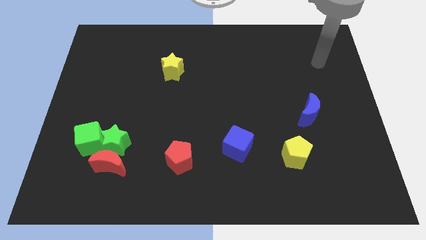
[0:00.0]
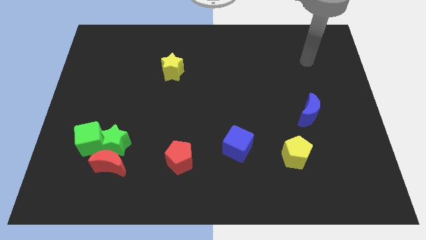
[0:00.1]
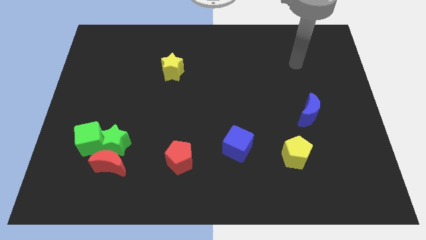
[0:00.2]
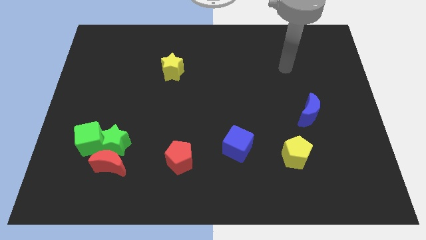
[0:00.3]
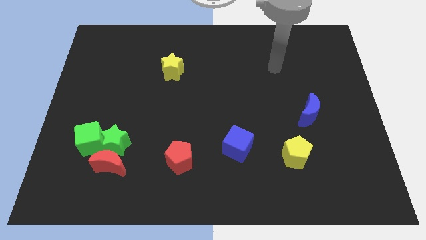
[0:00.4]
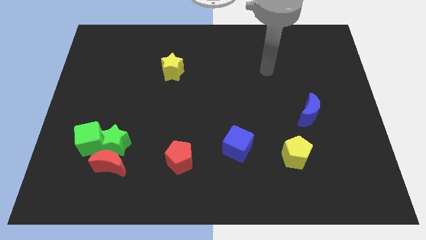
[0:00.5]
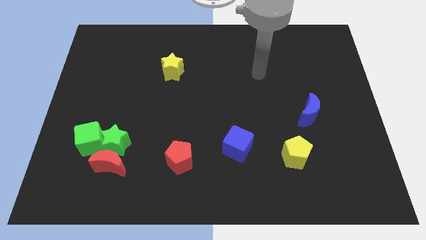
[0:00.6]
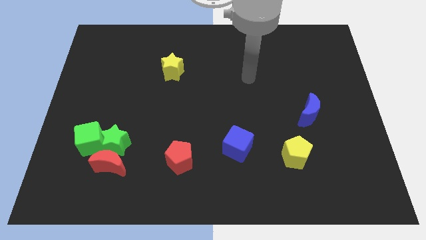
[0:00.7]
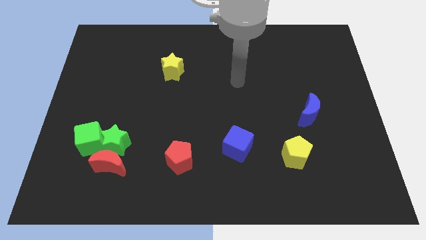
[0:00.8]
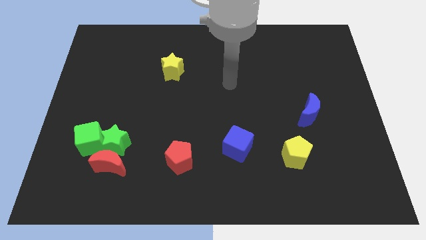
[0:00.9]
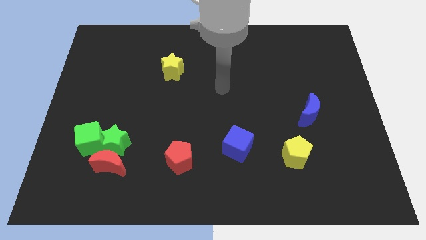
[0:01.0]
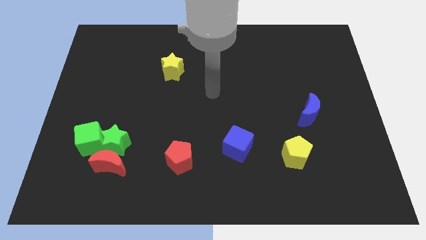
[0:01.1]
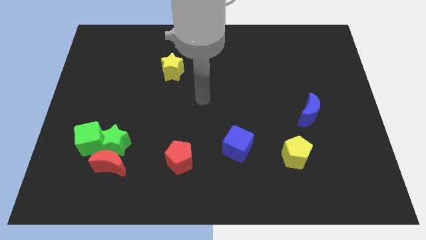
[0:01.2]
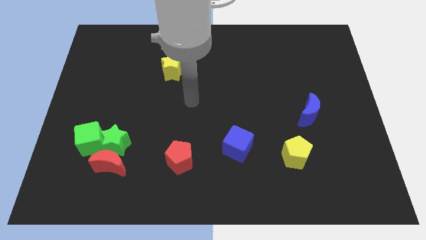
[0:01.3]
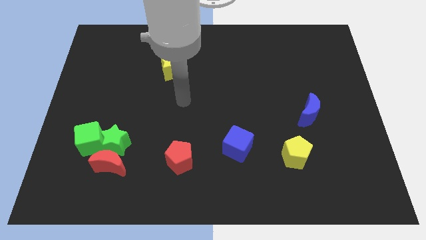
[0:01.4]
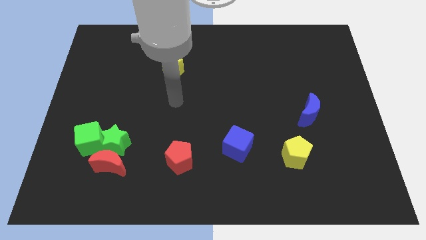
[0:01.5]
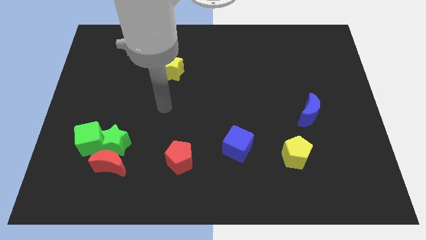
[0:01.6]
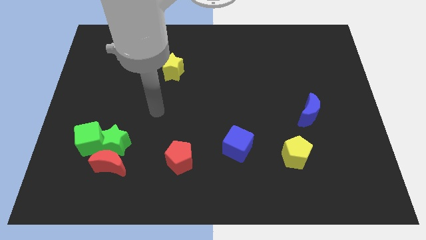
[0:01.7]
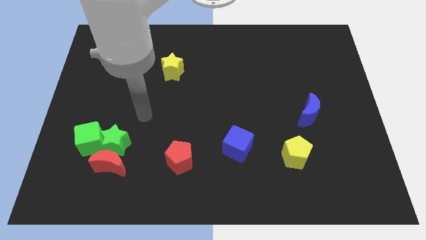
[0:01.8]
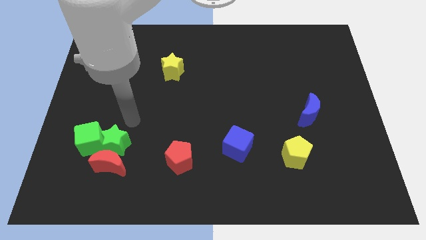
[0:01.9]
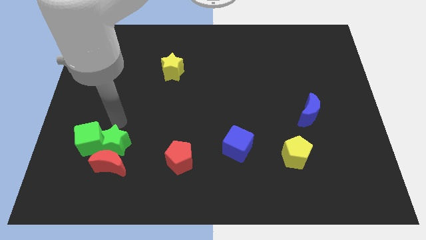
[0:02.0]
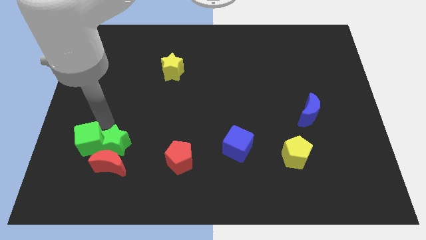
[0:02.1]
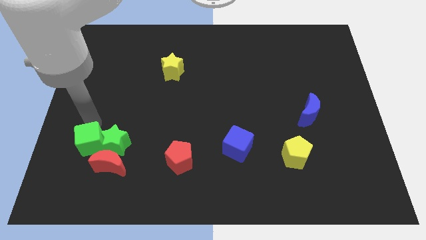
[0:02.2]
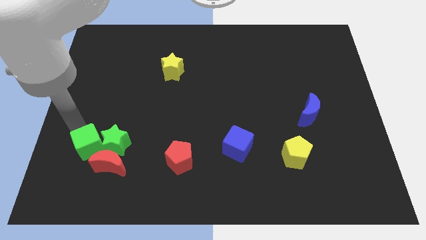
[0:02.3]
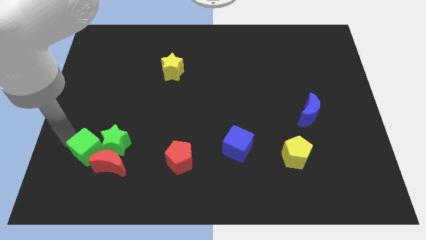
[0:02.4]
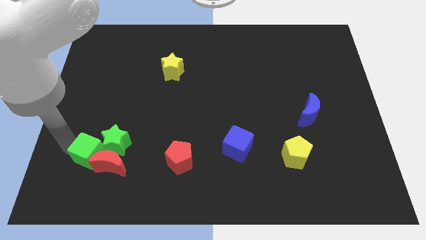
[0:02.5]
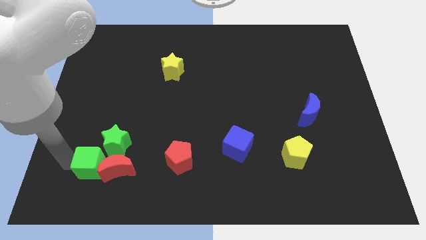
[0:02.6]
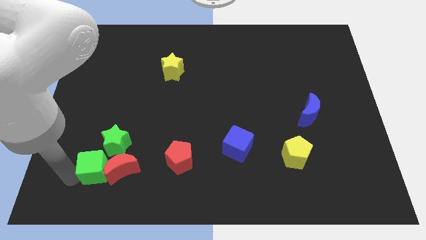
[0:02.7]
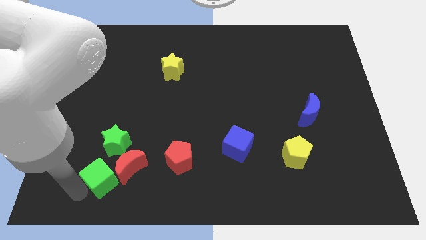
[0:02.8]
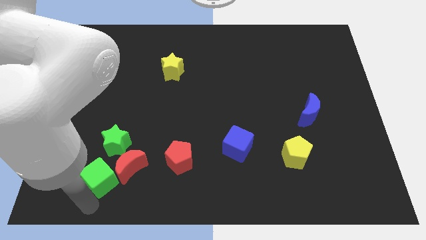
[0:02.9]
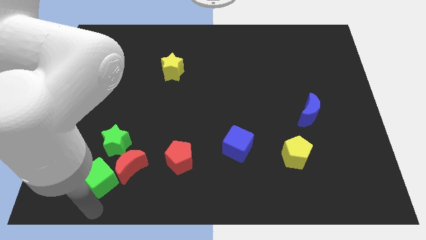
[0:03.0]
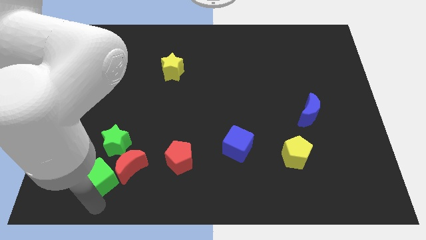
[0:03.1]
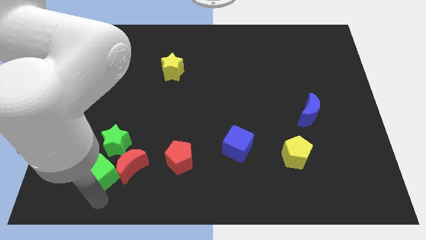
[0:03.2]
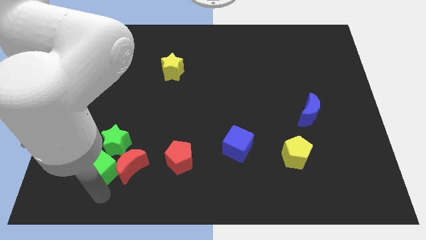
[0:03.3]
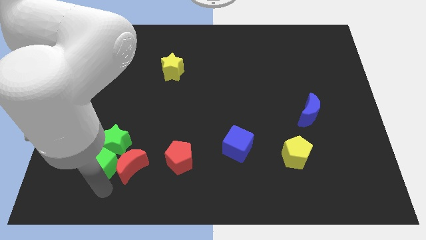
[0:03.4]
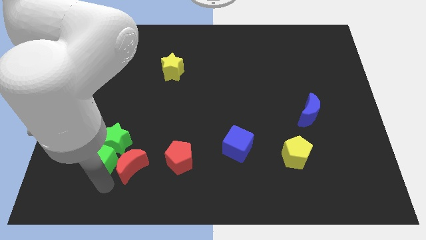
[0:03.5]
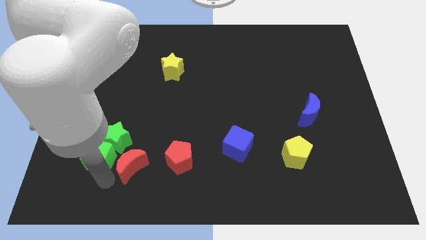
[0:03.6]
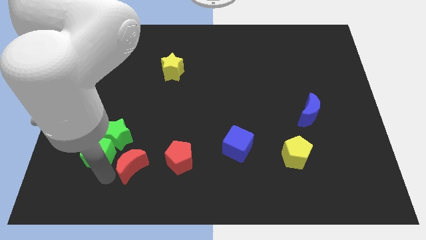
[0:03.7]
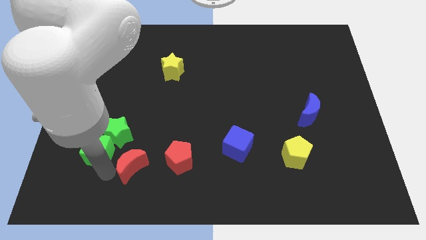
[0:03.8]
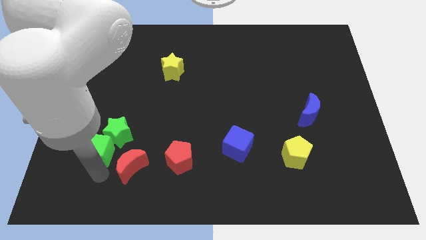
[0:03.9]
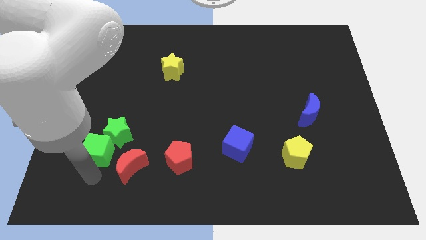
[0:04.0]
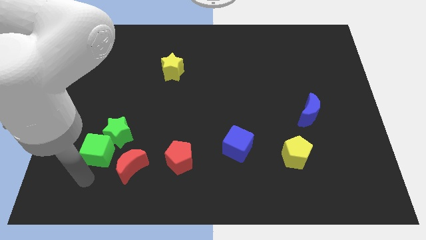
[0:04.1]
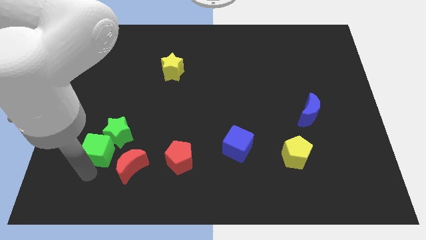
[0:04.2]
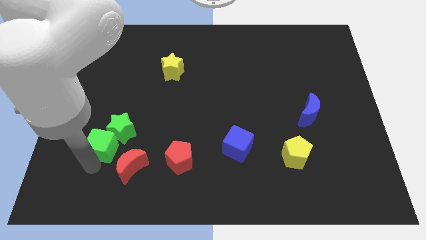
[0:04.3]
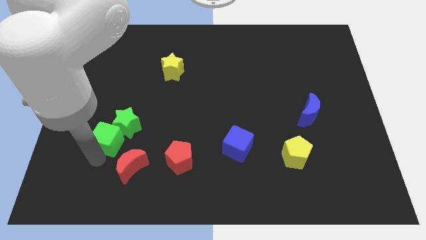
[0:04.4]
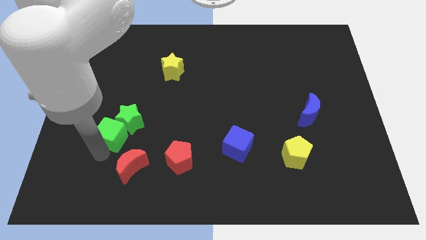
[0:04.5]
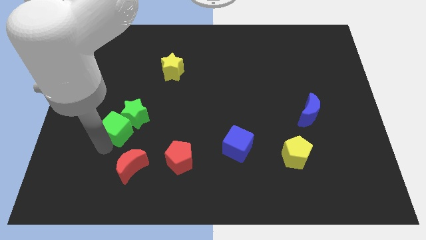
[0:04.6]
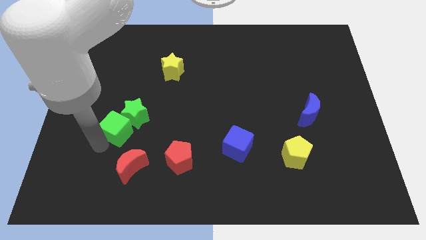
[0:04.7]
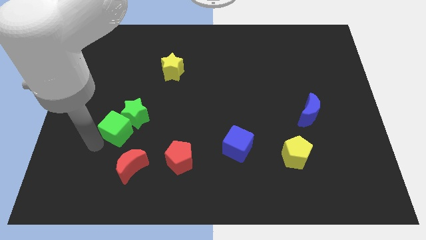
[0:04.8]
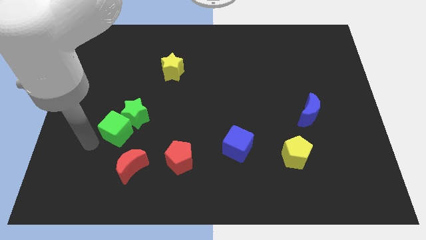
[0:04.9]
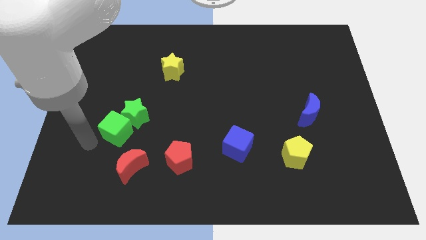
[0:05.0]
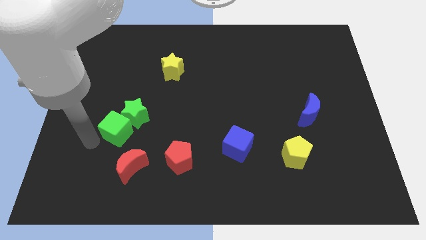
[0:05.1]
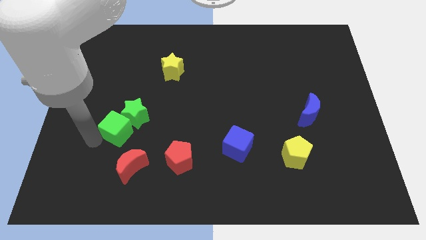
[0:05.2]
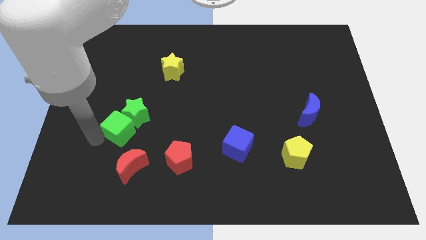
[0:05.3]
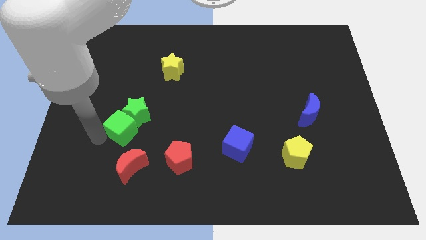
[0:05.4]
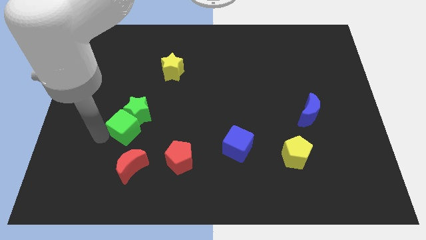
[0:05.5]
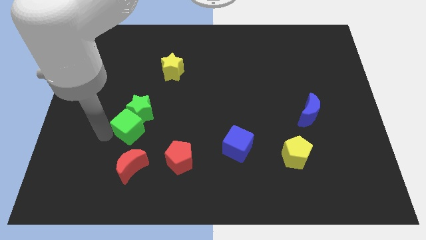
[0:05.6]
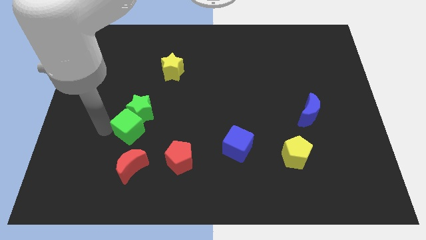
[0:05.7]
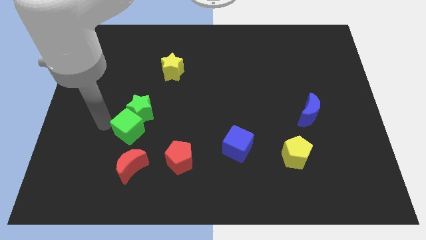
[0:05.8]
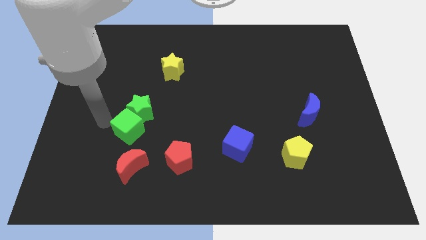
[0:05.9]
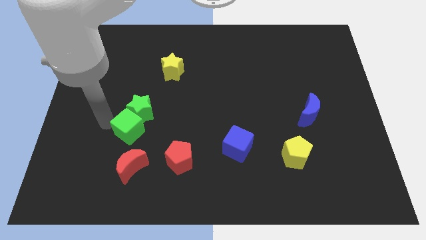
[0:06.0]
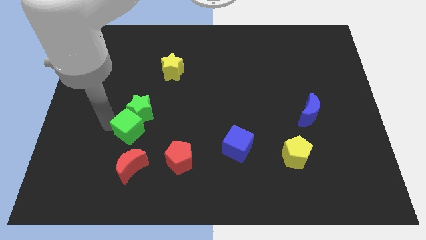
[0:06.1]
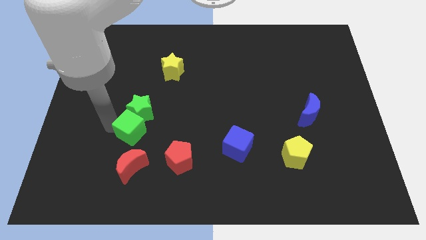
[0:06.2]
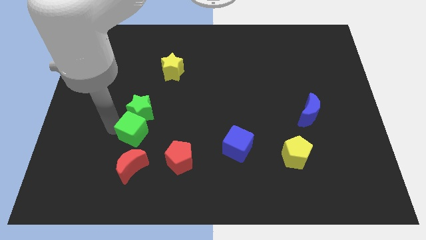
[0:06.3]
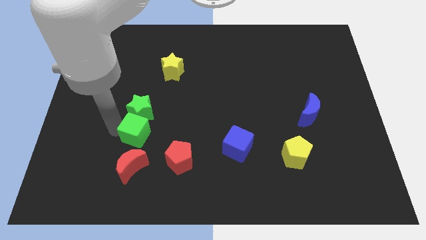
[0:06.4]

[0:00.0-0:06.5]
put the green cube to the top left of the red pentagon

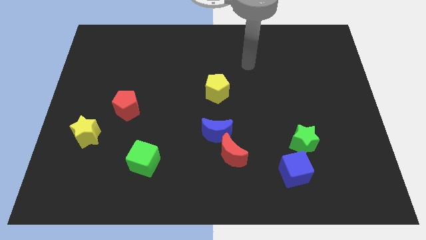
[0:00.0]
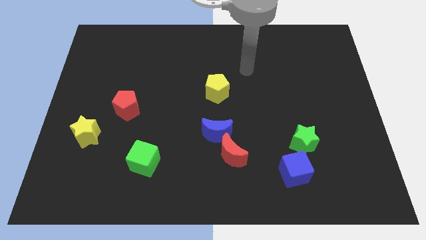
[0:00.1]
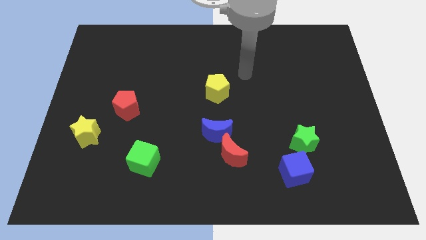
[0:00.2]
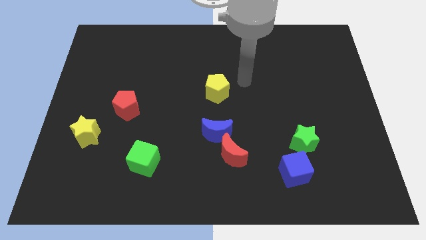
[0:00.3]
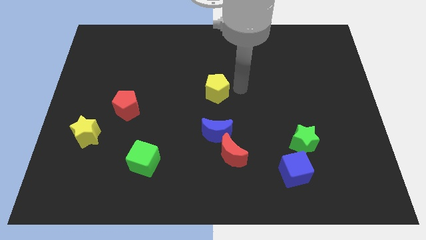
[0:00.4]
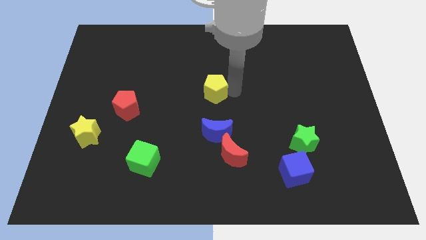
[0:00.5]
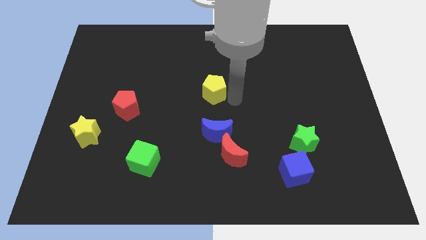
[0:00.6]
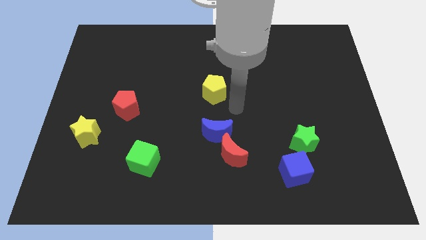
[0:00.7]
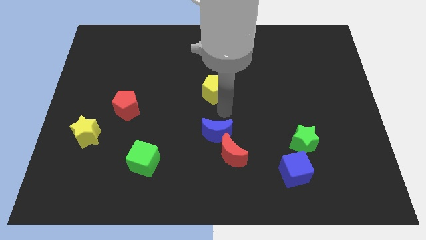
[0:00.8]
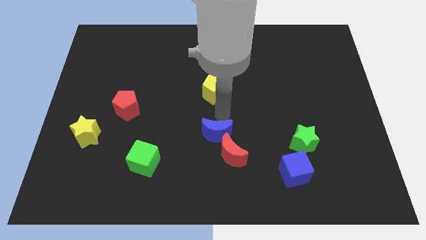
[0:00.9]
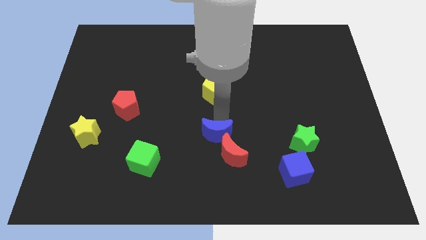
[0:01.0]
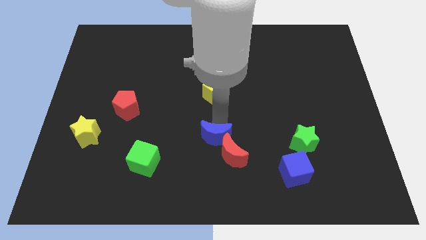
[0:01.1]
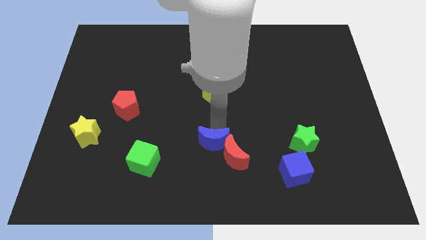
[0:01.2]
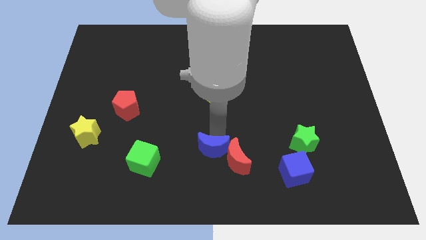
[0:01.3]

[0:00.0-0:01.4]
put the blue moon to the right of the green cube

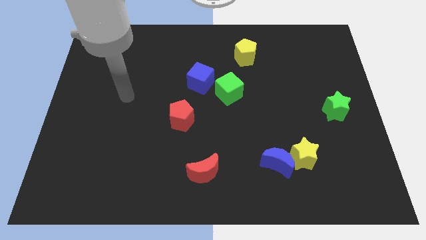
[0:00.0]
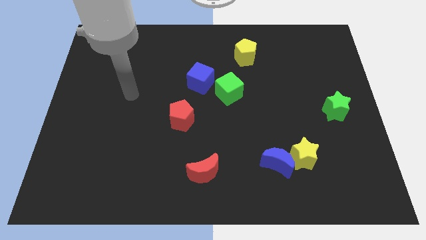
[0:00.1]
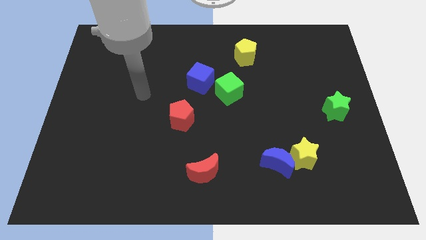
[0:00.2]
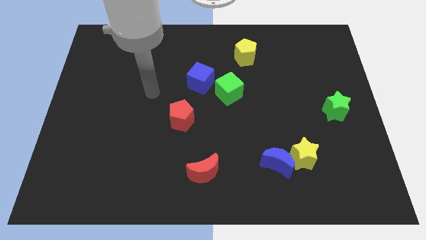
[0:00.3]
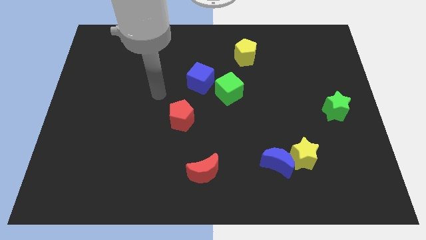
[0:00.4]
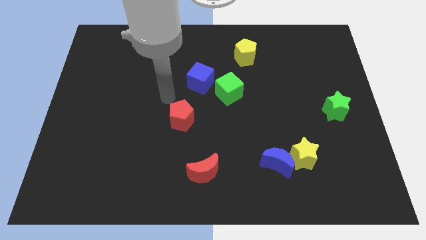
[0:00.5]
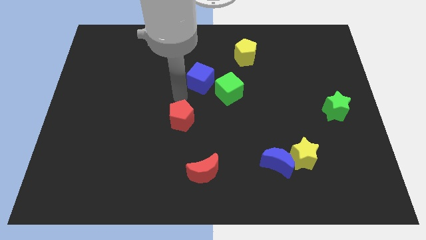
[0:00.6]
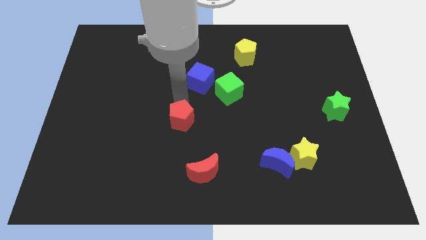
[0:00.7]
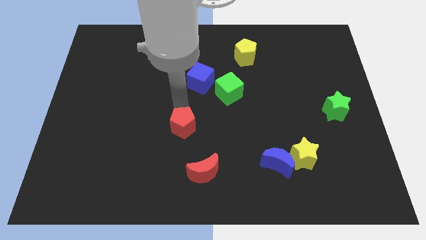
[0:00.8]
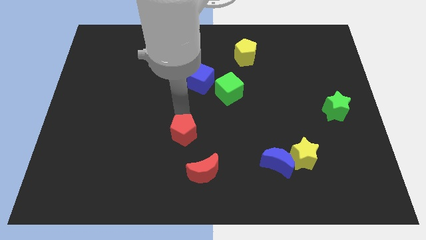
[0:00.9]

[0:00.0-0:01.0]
move the red pentagon to the top left side of the red moon
